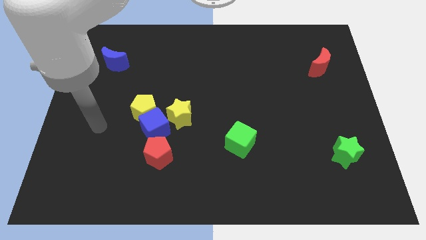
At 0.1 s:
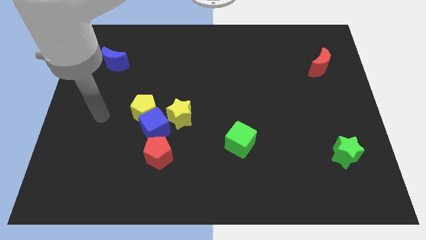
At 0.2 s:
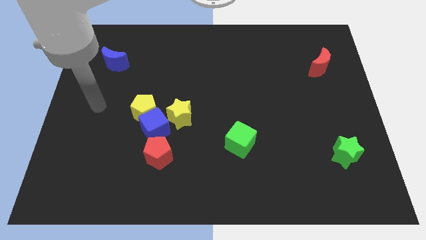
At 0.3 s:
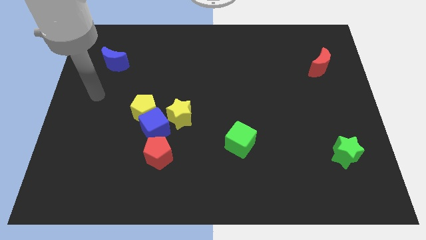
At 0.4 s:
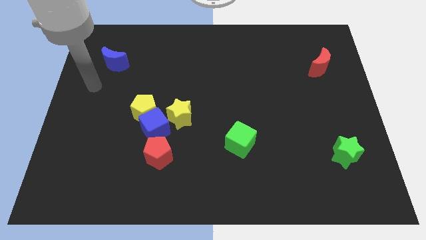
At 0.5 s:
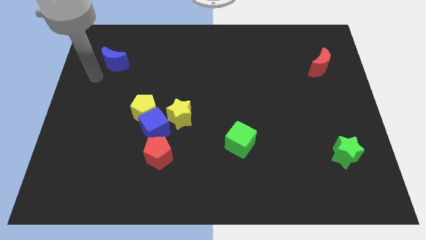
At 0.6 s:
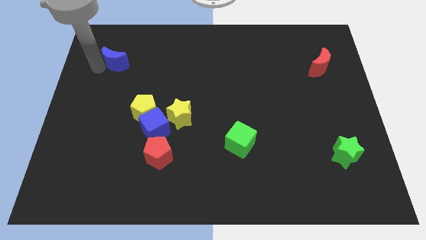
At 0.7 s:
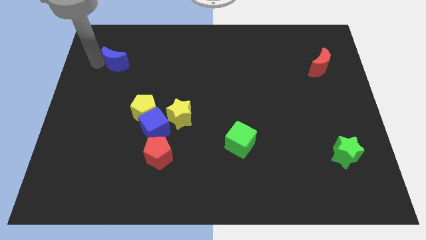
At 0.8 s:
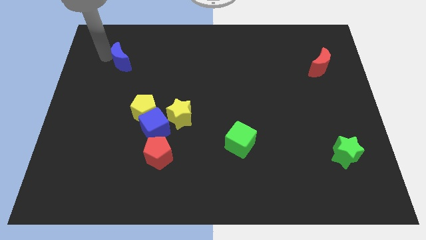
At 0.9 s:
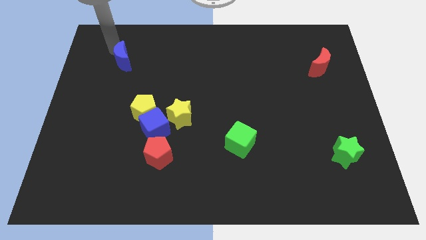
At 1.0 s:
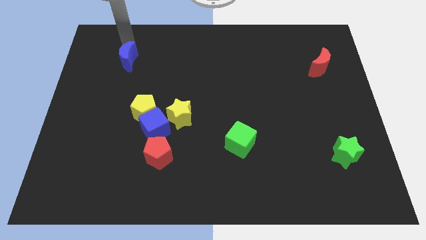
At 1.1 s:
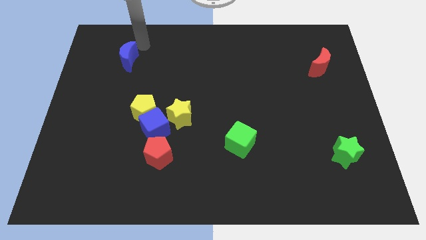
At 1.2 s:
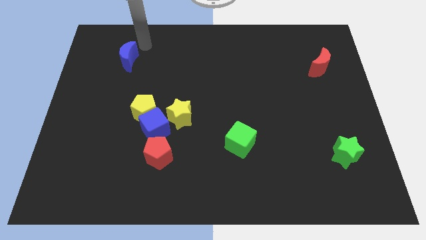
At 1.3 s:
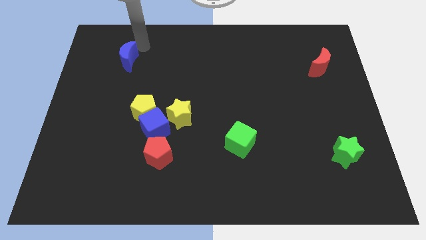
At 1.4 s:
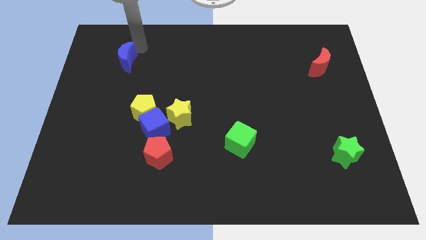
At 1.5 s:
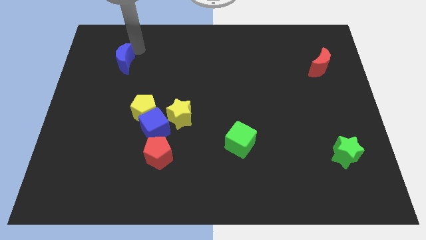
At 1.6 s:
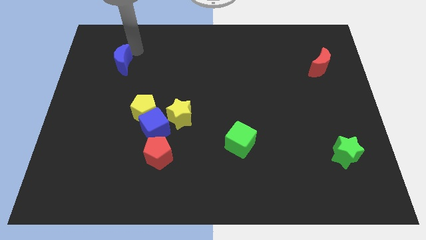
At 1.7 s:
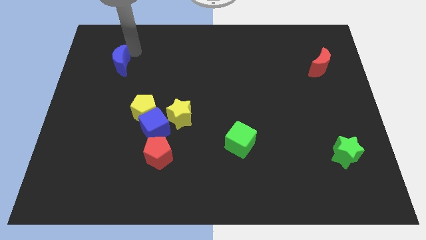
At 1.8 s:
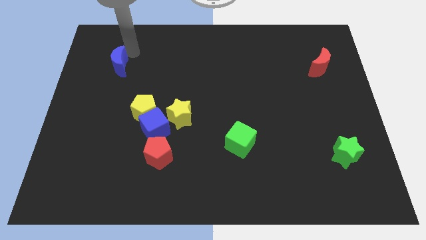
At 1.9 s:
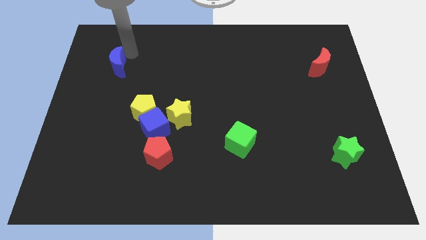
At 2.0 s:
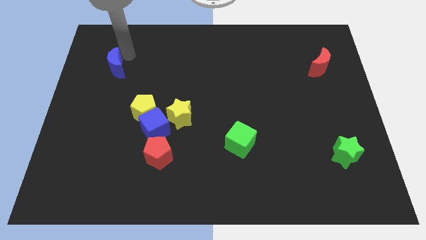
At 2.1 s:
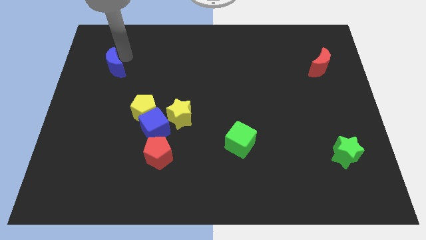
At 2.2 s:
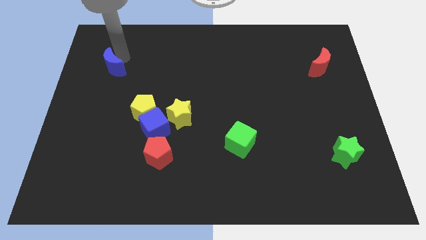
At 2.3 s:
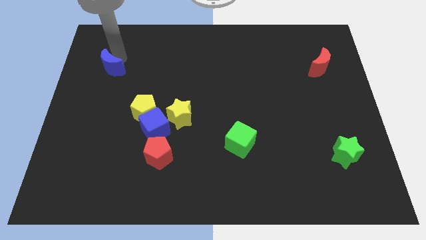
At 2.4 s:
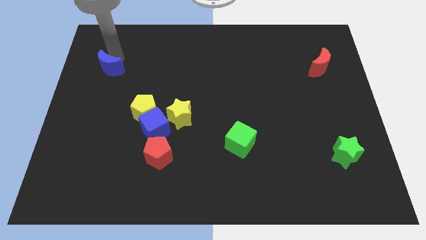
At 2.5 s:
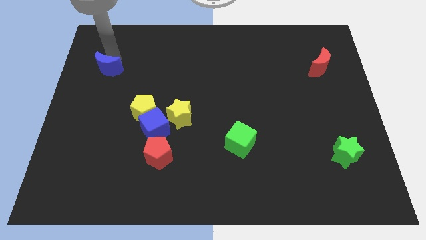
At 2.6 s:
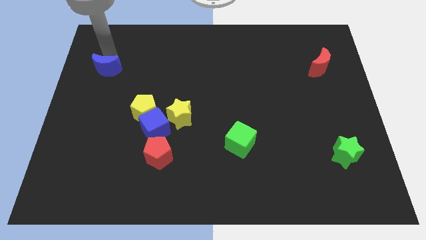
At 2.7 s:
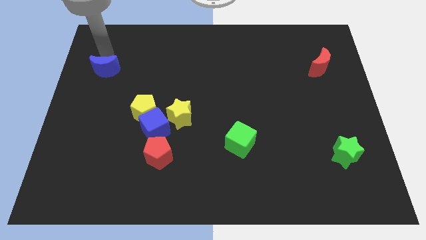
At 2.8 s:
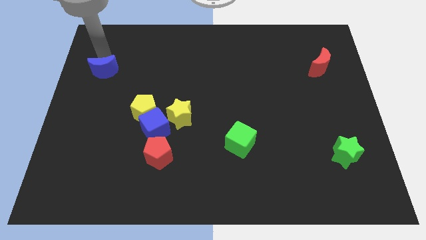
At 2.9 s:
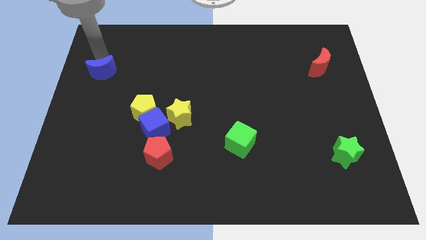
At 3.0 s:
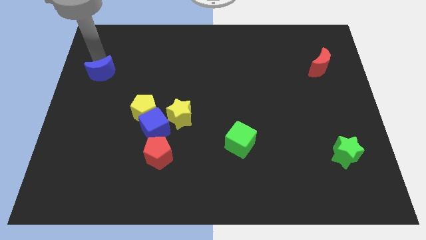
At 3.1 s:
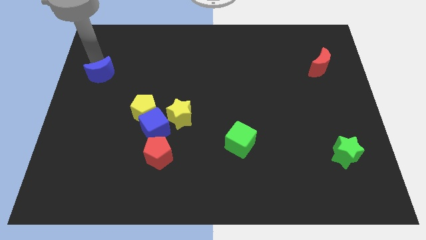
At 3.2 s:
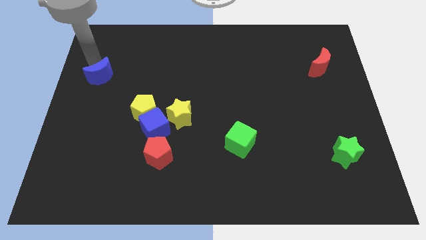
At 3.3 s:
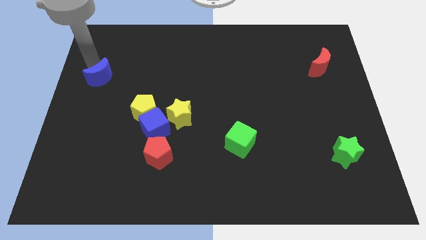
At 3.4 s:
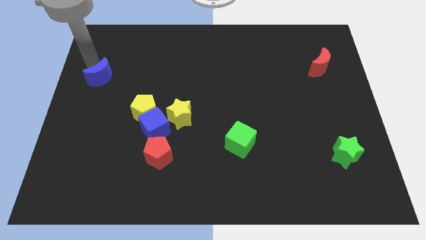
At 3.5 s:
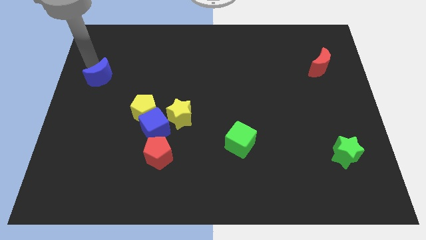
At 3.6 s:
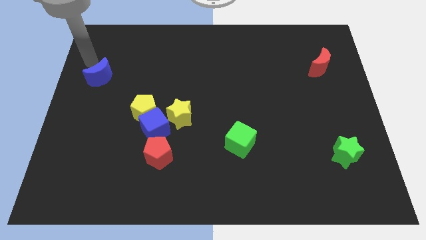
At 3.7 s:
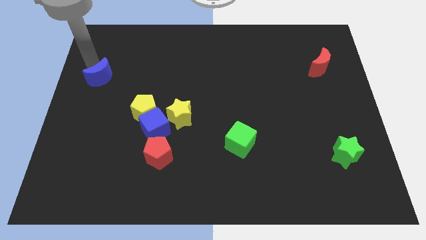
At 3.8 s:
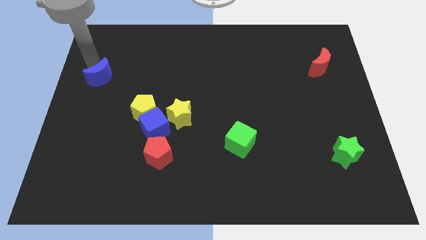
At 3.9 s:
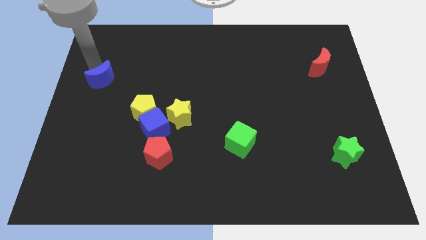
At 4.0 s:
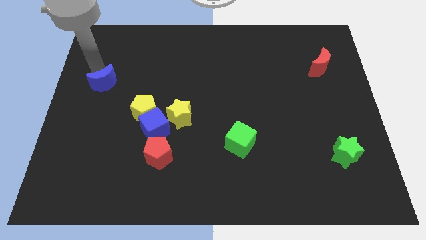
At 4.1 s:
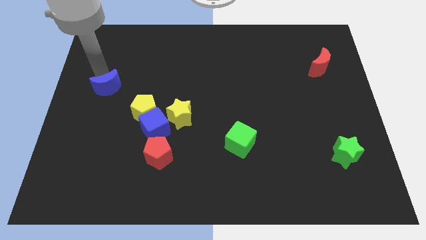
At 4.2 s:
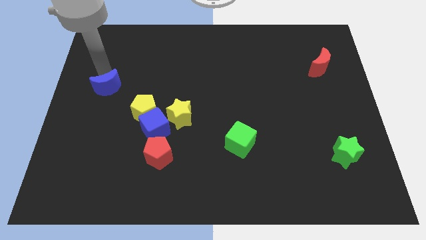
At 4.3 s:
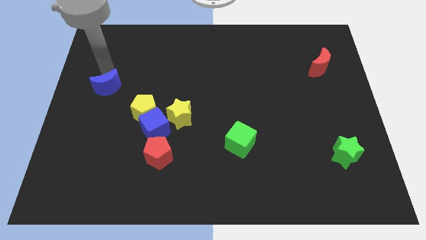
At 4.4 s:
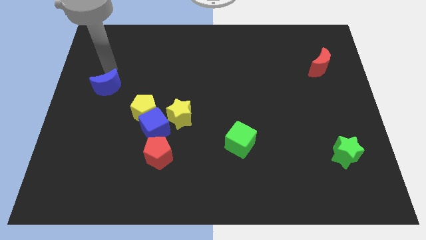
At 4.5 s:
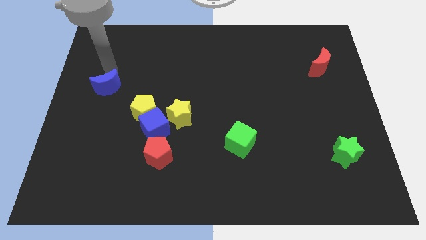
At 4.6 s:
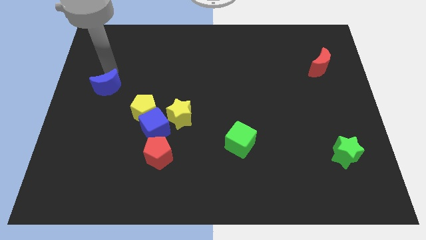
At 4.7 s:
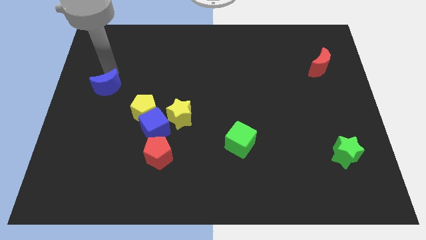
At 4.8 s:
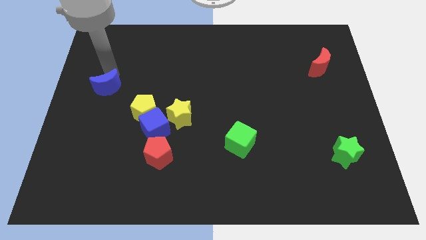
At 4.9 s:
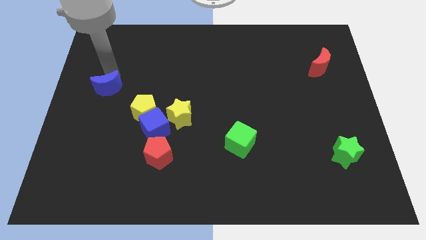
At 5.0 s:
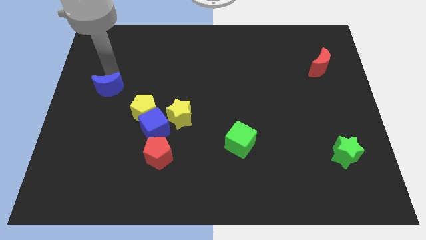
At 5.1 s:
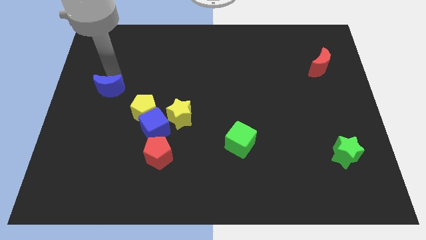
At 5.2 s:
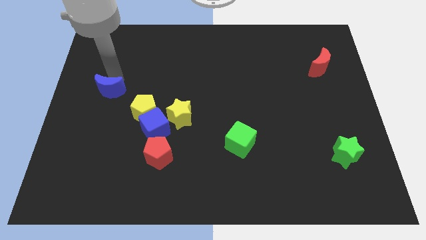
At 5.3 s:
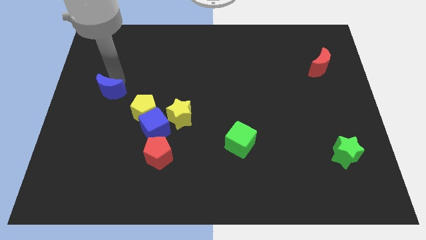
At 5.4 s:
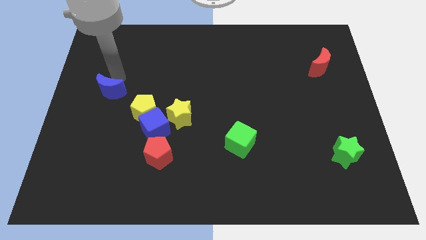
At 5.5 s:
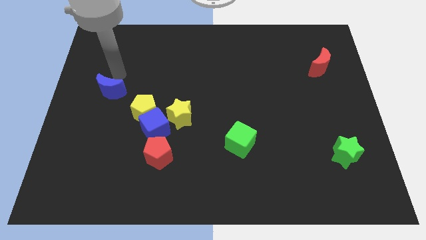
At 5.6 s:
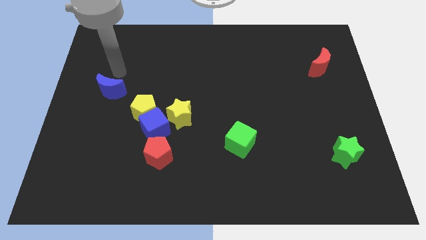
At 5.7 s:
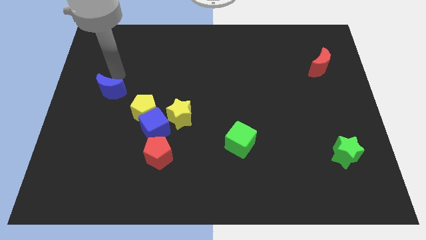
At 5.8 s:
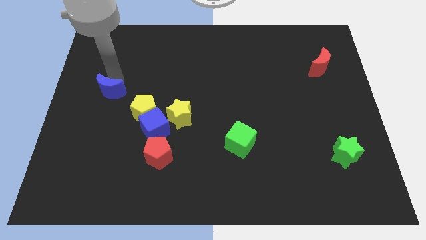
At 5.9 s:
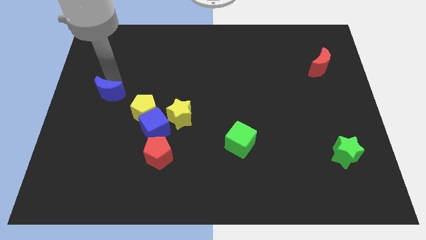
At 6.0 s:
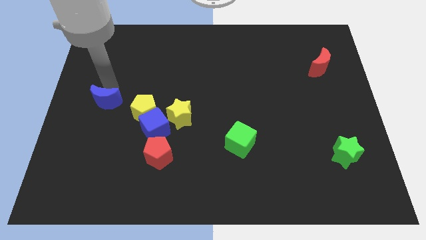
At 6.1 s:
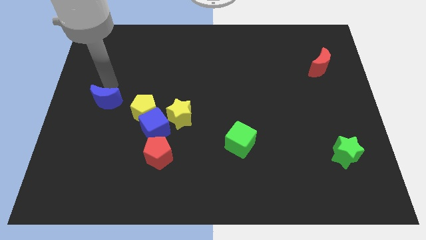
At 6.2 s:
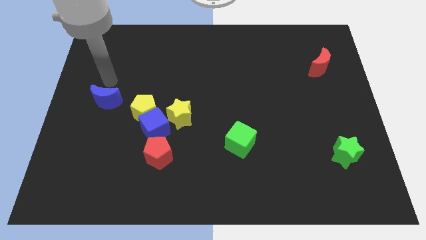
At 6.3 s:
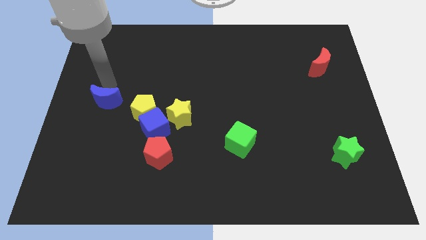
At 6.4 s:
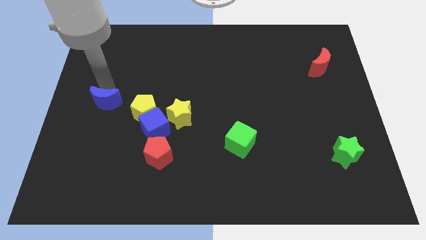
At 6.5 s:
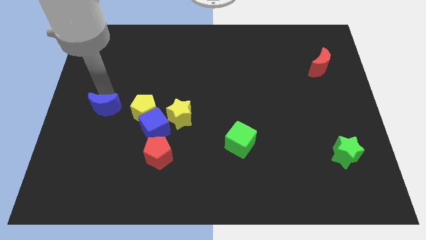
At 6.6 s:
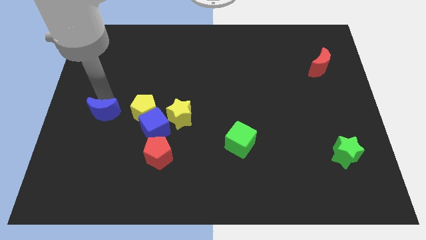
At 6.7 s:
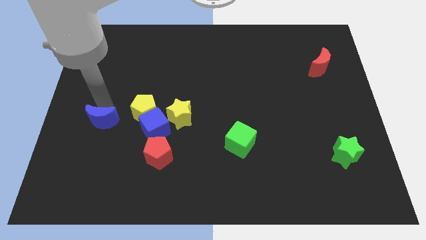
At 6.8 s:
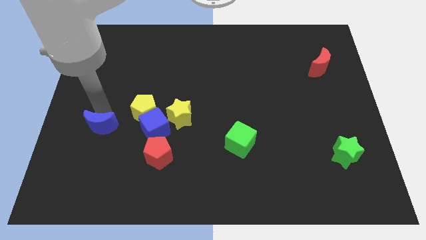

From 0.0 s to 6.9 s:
push the blue moon down

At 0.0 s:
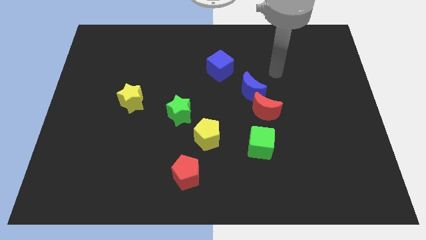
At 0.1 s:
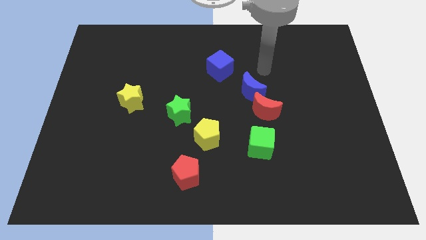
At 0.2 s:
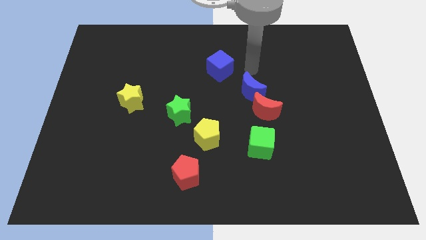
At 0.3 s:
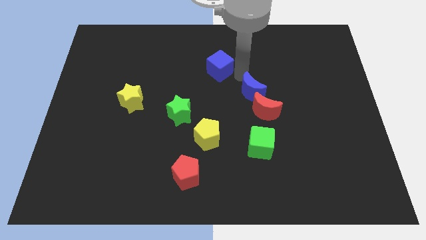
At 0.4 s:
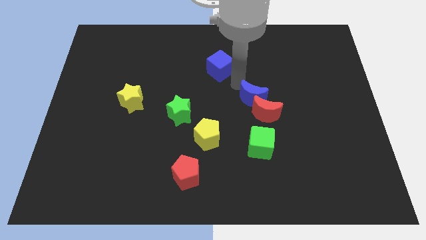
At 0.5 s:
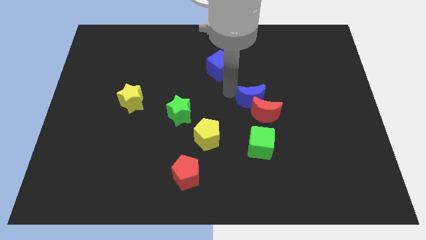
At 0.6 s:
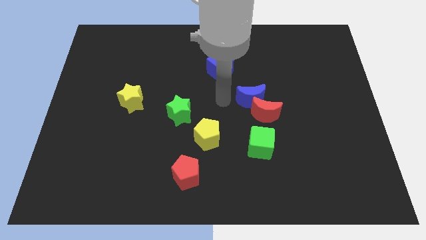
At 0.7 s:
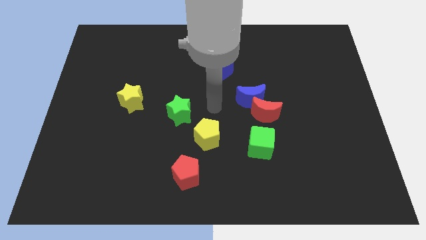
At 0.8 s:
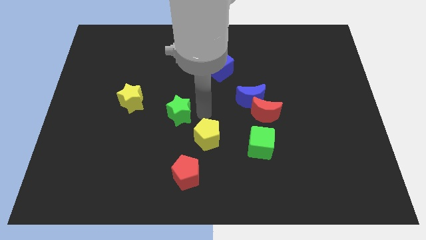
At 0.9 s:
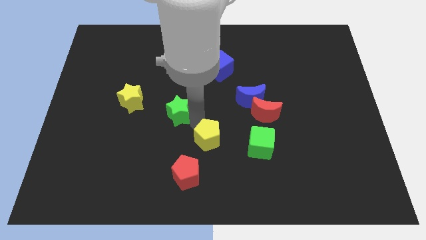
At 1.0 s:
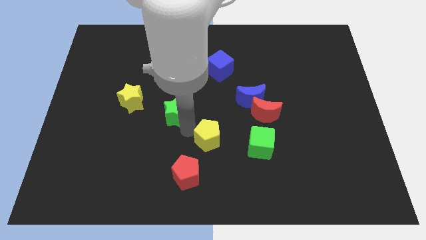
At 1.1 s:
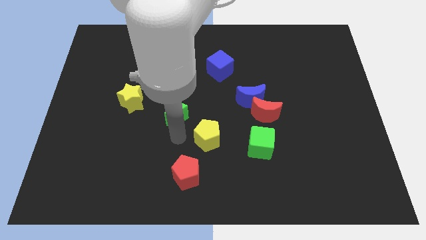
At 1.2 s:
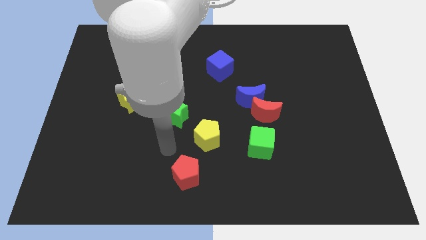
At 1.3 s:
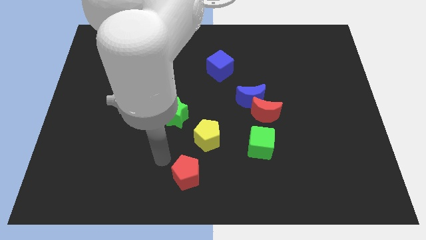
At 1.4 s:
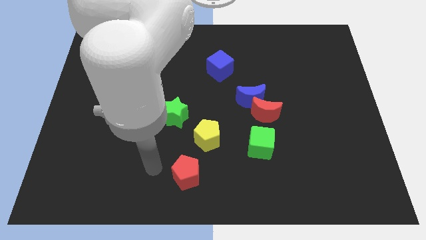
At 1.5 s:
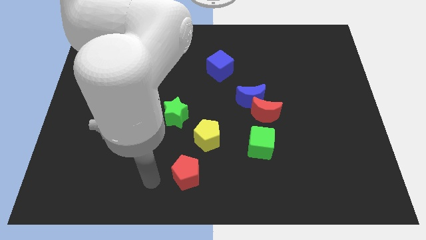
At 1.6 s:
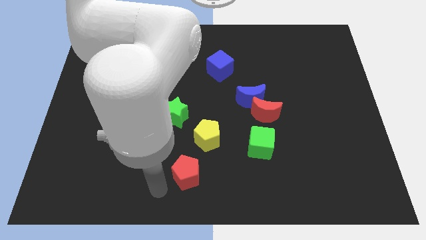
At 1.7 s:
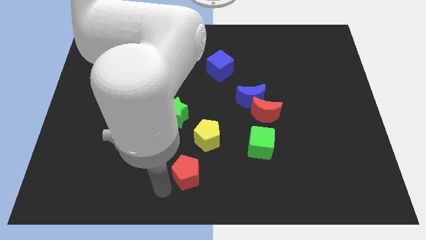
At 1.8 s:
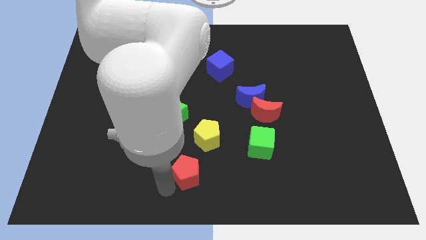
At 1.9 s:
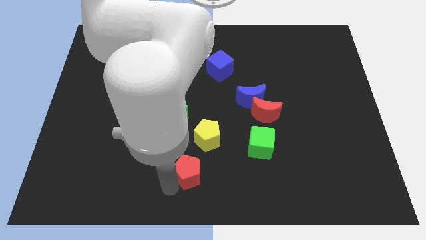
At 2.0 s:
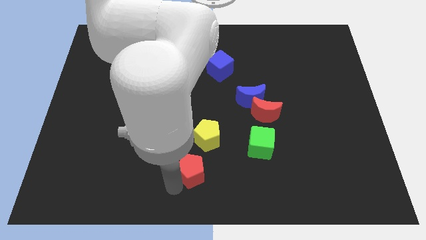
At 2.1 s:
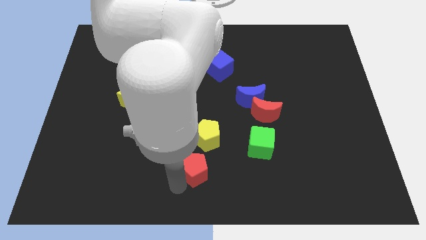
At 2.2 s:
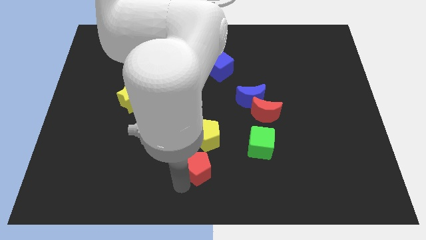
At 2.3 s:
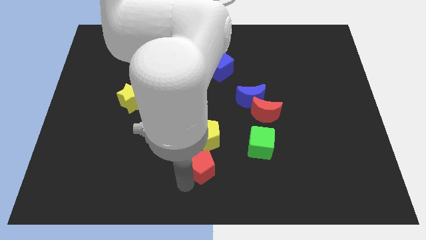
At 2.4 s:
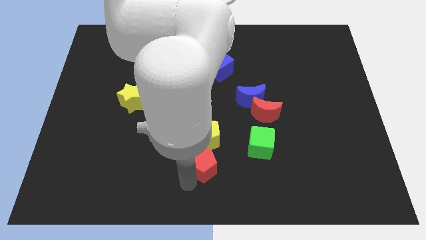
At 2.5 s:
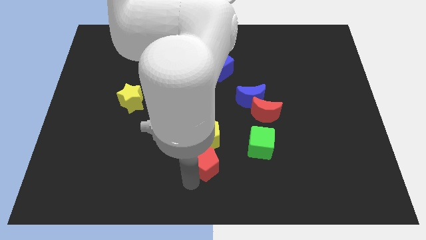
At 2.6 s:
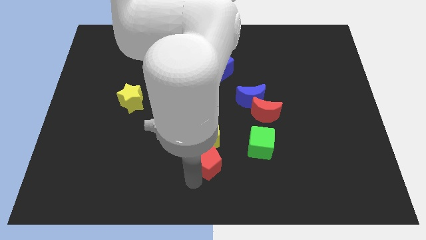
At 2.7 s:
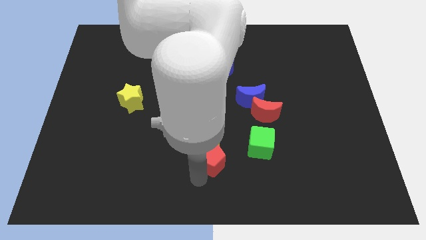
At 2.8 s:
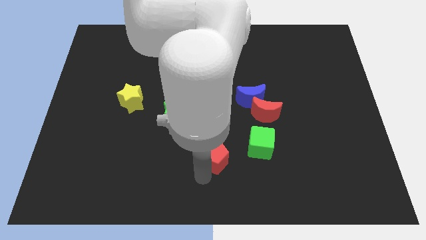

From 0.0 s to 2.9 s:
slide the red pentagon a bit diagonally upwards and right
